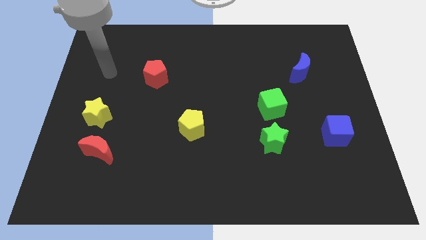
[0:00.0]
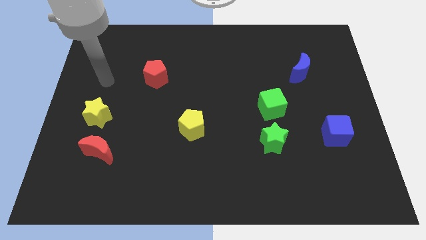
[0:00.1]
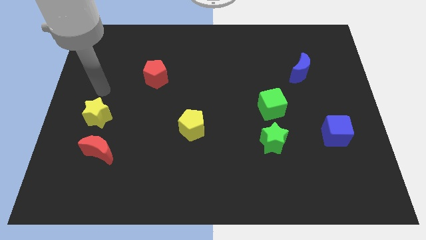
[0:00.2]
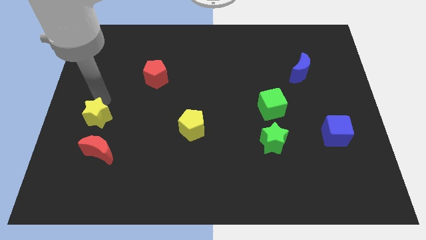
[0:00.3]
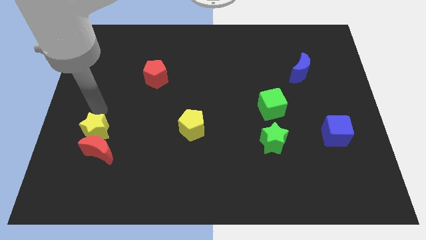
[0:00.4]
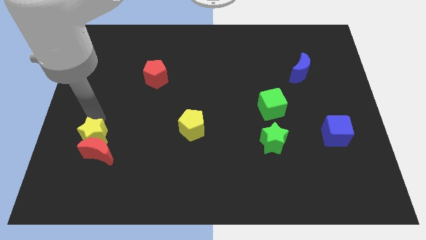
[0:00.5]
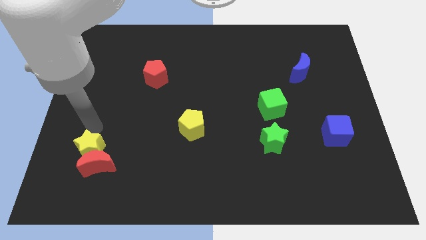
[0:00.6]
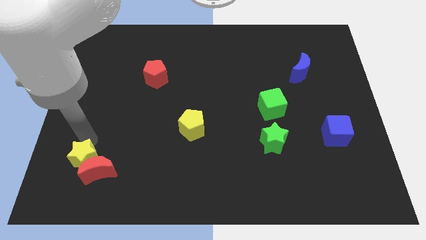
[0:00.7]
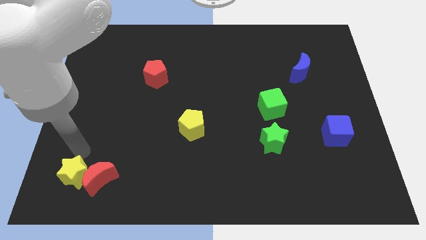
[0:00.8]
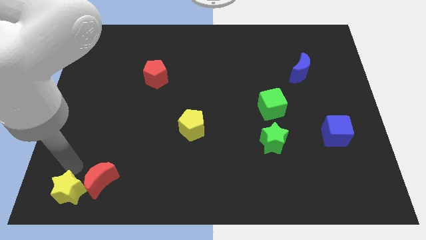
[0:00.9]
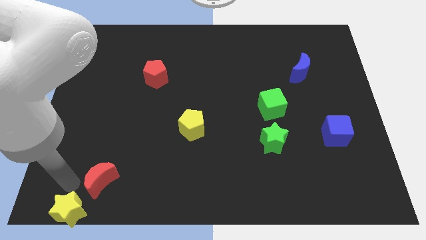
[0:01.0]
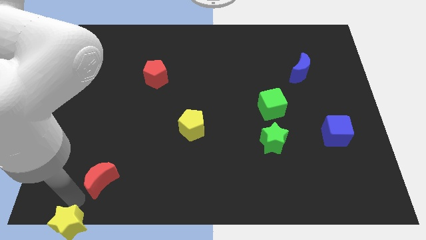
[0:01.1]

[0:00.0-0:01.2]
separate the red moon from the yellow star

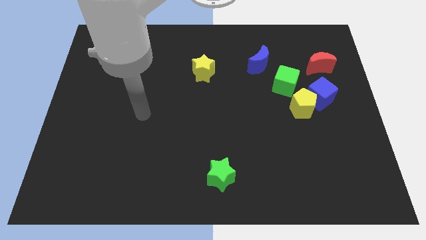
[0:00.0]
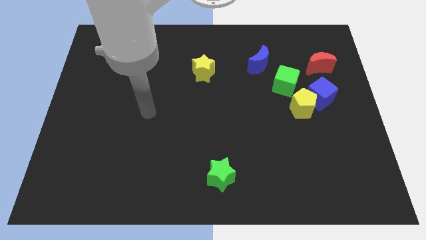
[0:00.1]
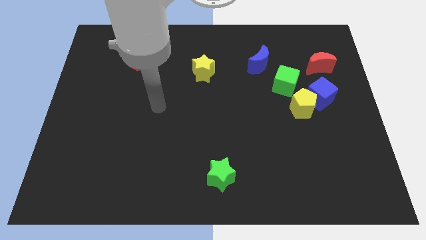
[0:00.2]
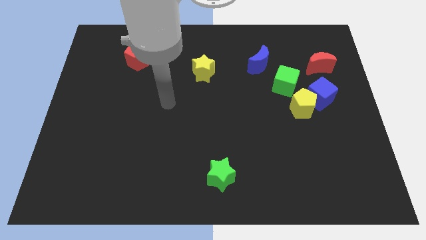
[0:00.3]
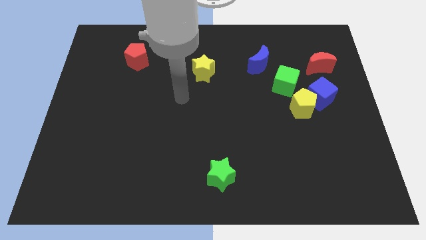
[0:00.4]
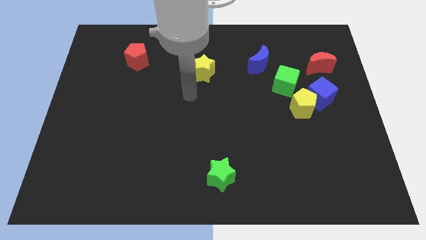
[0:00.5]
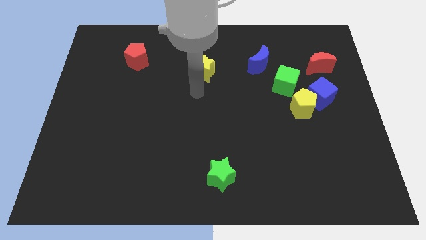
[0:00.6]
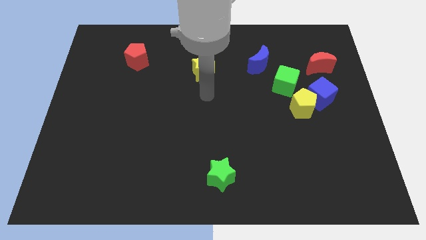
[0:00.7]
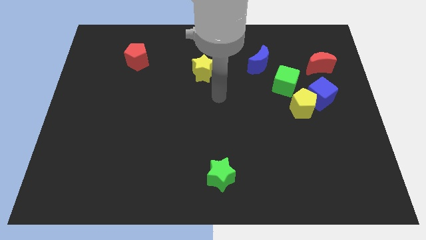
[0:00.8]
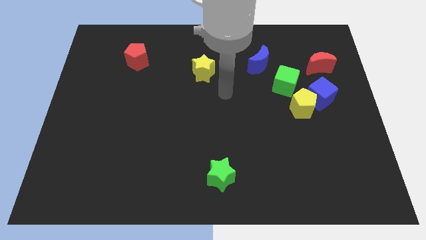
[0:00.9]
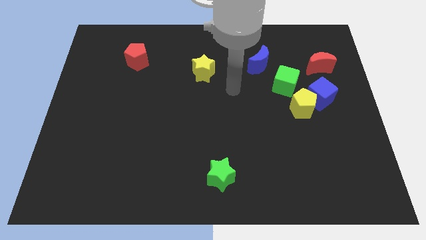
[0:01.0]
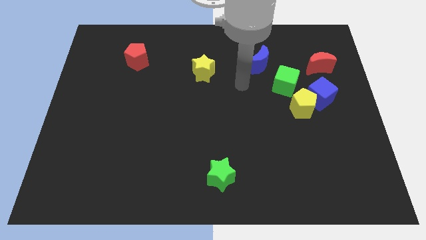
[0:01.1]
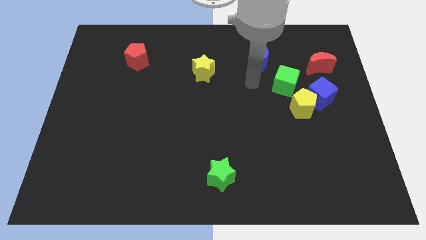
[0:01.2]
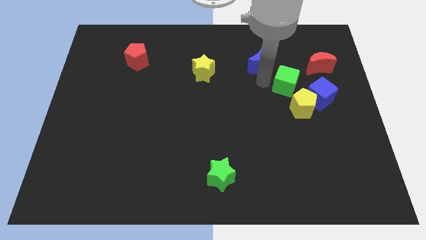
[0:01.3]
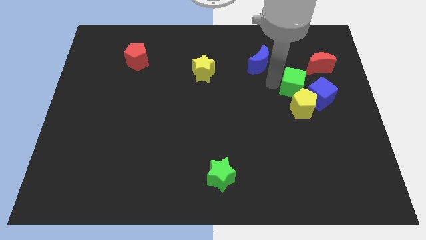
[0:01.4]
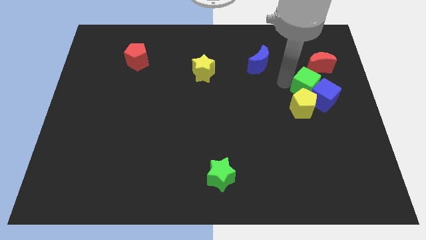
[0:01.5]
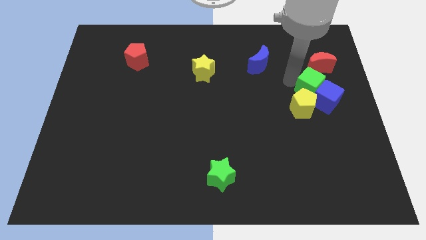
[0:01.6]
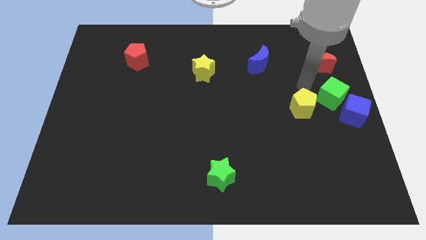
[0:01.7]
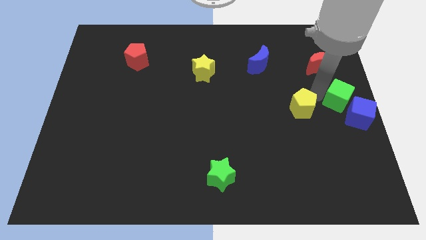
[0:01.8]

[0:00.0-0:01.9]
separate the yellow pentagon from the blue cube and green cube

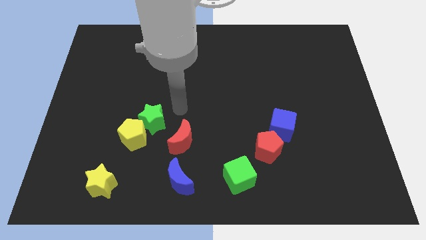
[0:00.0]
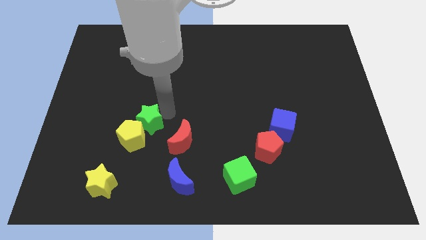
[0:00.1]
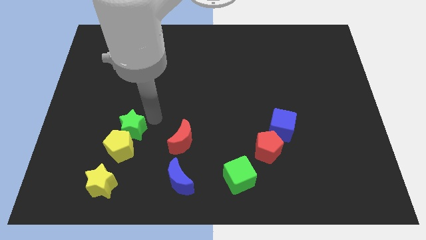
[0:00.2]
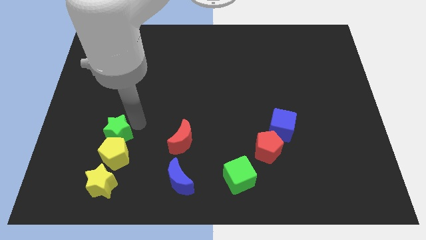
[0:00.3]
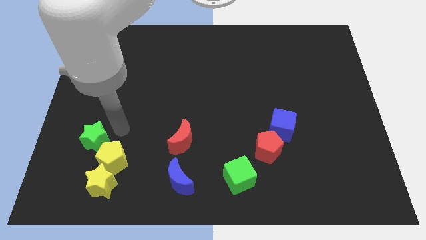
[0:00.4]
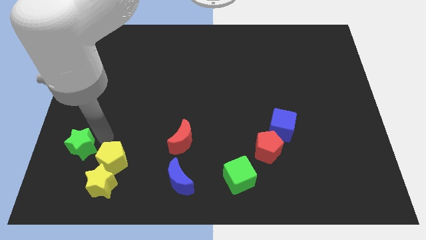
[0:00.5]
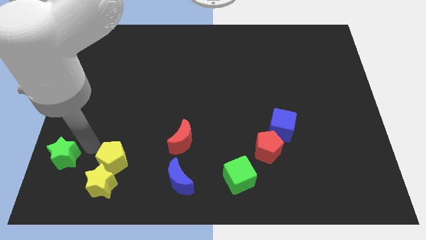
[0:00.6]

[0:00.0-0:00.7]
separate the yellow pentagon from the green star

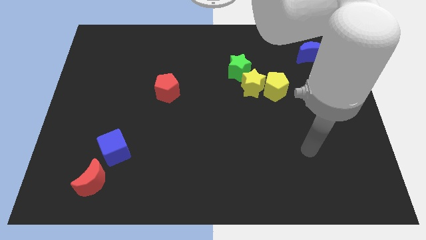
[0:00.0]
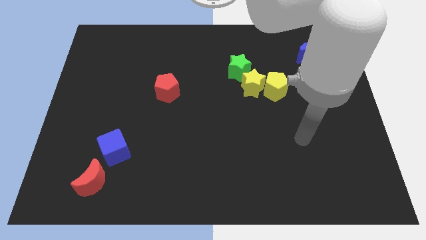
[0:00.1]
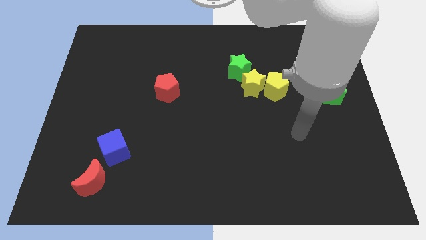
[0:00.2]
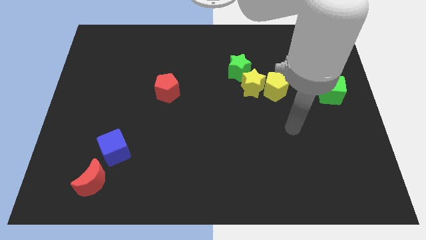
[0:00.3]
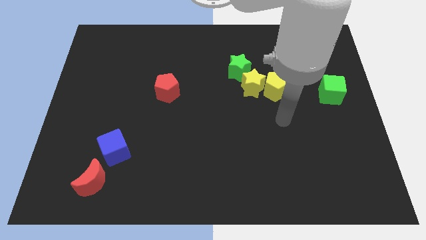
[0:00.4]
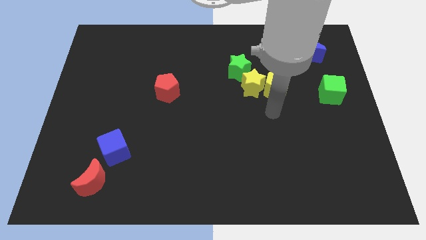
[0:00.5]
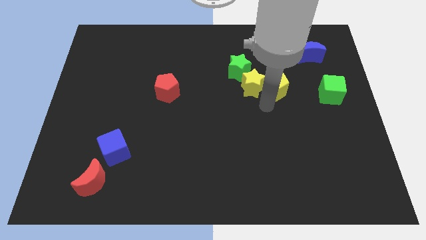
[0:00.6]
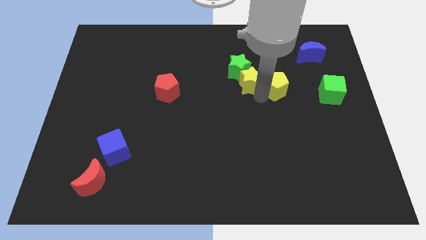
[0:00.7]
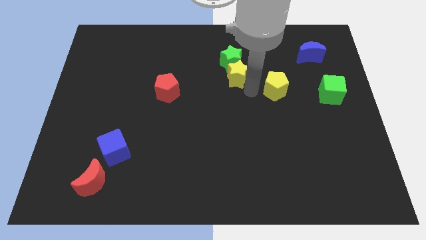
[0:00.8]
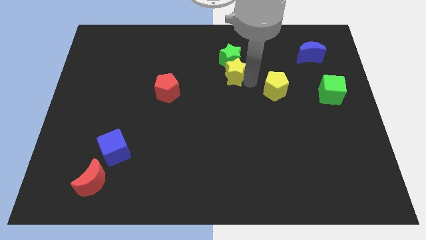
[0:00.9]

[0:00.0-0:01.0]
separate the yellow pentagon from the yellow star

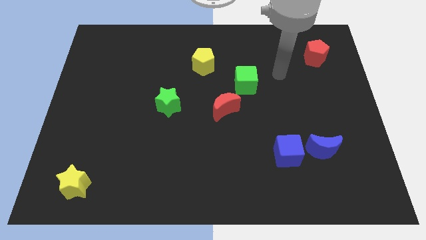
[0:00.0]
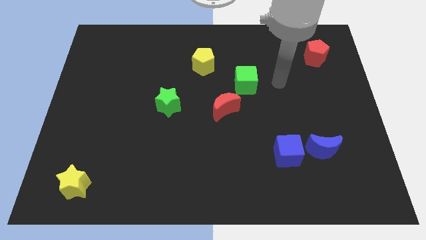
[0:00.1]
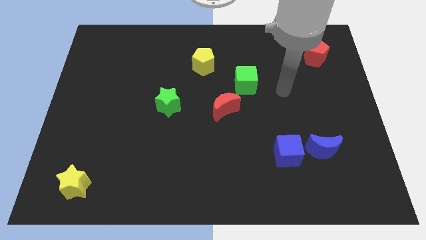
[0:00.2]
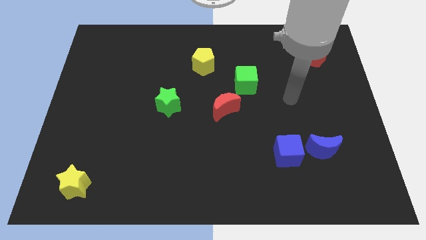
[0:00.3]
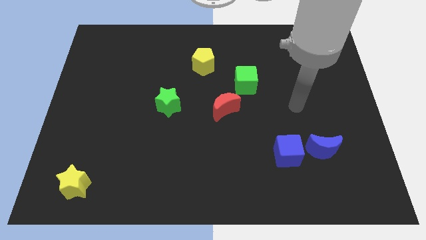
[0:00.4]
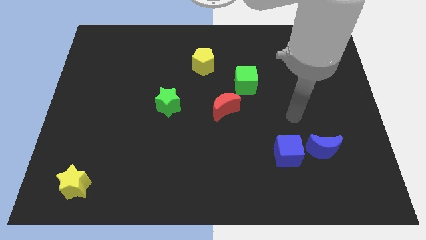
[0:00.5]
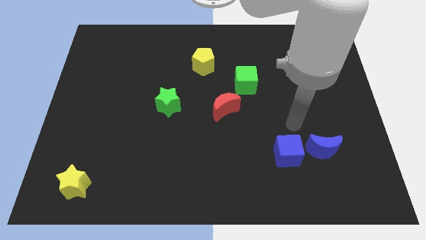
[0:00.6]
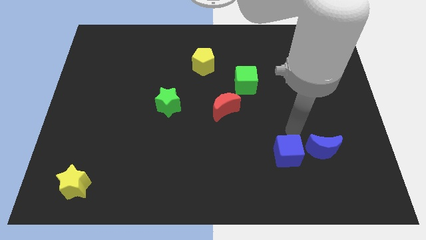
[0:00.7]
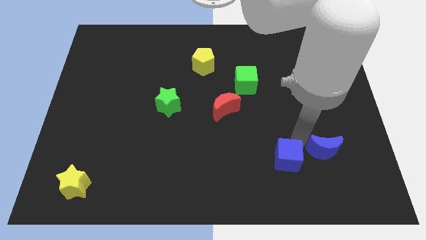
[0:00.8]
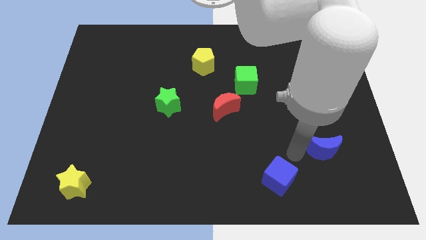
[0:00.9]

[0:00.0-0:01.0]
separate the blue moon from the blue cube

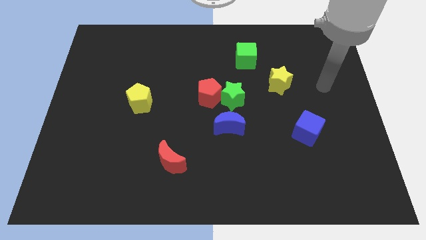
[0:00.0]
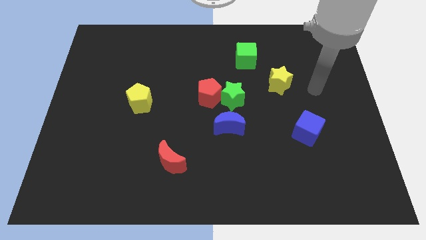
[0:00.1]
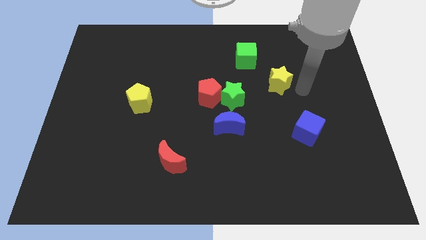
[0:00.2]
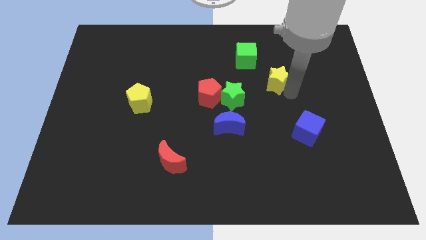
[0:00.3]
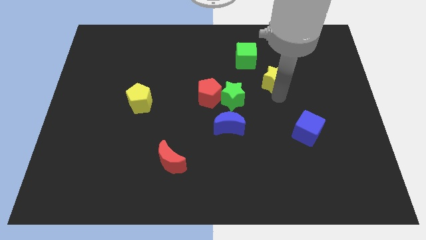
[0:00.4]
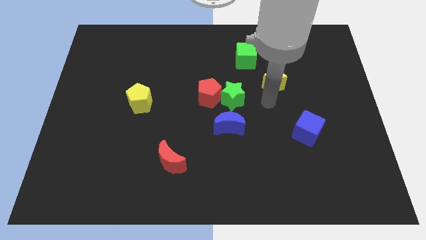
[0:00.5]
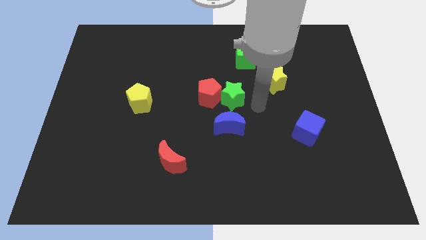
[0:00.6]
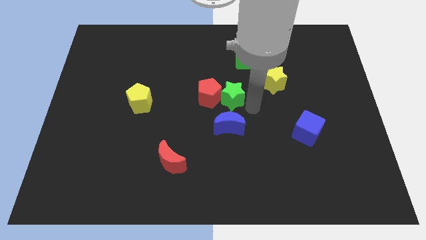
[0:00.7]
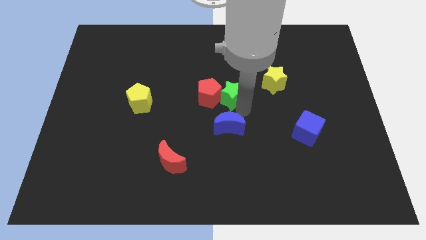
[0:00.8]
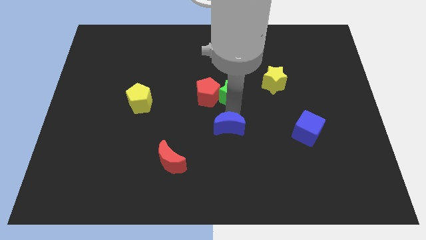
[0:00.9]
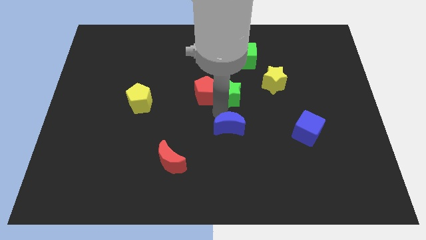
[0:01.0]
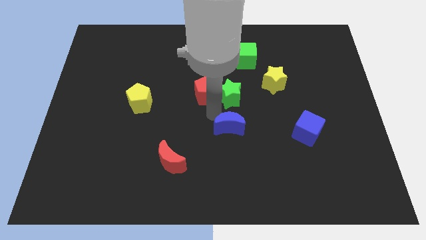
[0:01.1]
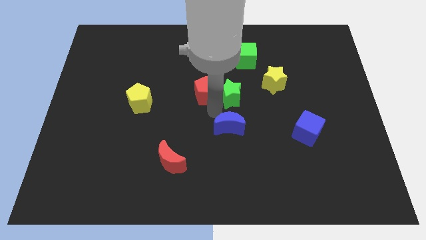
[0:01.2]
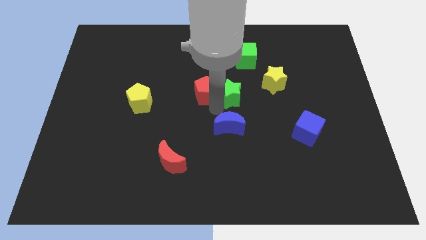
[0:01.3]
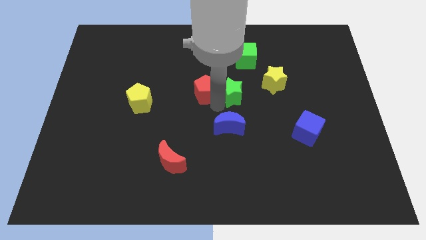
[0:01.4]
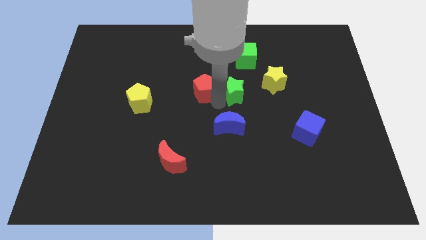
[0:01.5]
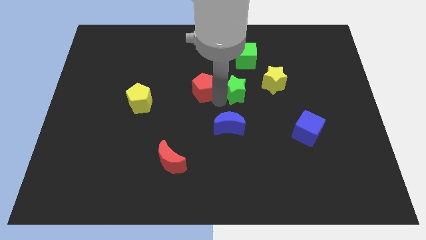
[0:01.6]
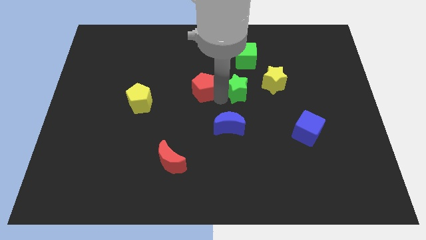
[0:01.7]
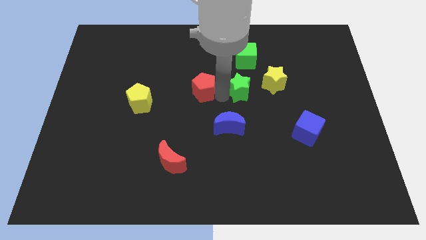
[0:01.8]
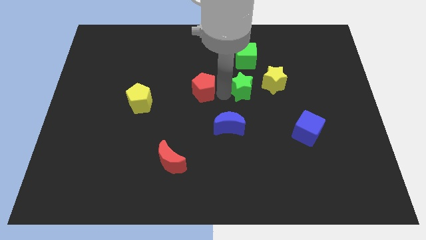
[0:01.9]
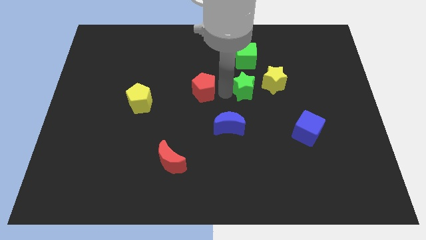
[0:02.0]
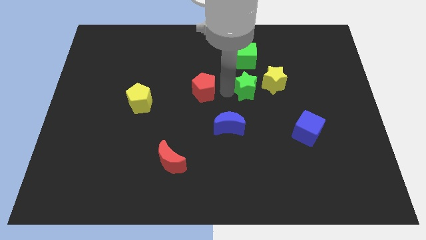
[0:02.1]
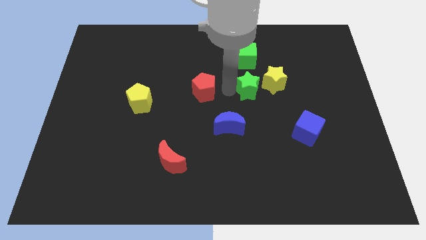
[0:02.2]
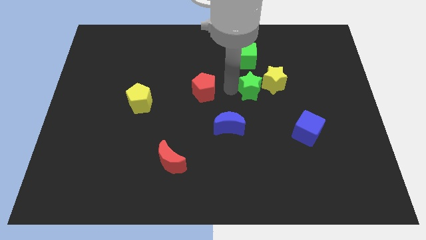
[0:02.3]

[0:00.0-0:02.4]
separate the green star from the red pentagon and blue moon

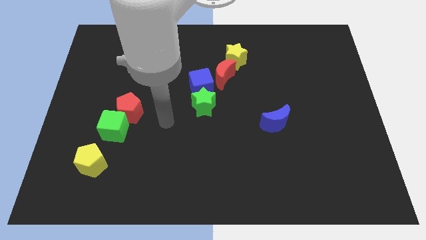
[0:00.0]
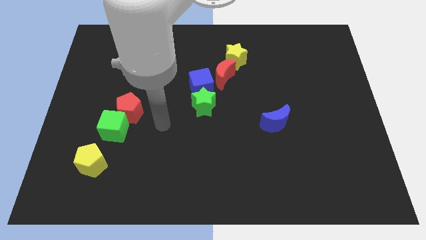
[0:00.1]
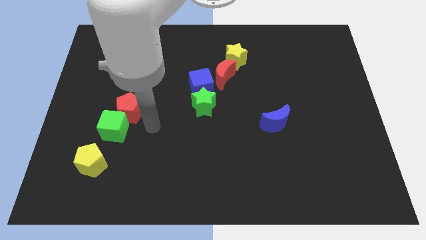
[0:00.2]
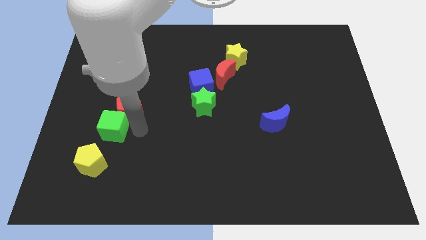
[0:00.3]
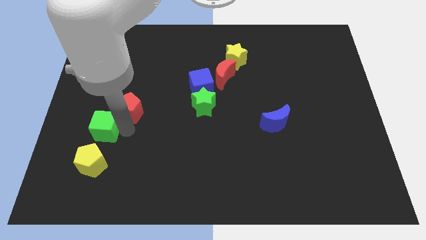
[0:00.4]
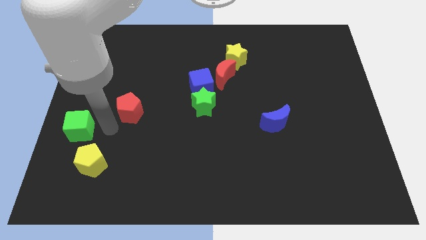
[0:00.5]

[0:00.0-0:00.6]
separate the red pentagon from the green cube

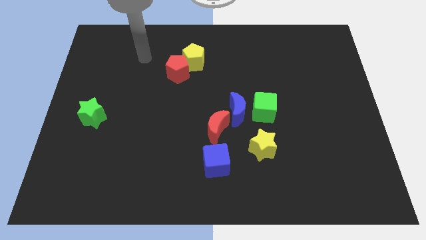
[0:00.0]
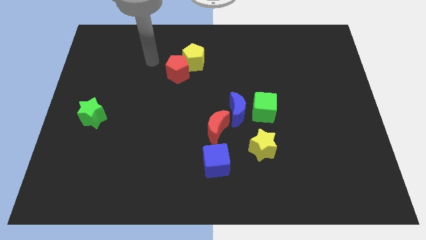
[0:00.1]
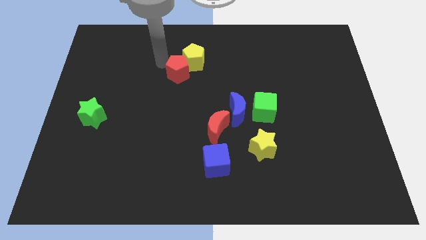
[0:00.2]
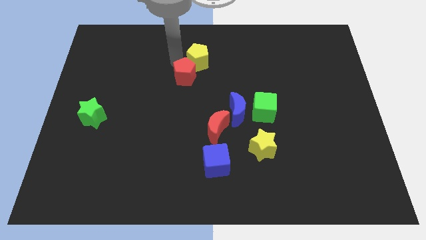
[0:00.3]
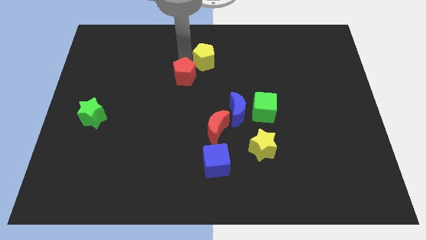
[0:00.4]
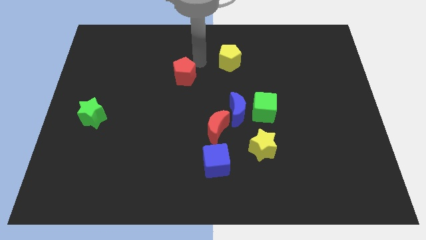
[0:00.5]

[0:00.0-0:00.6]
pull the red pentagon apart from the yellow pentagon
